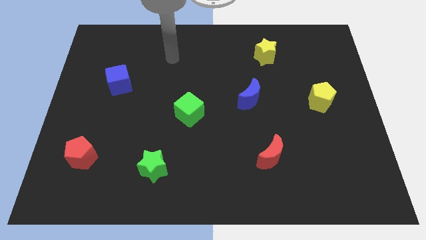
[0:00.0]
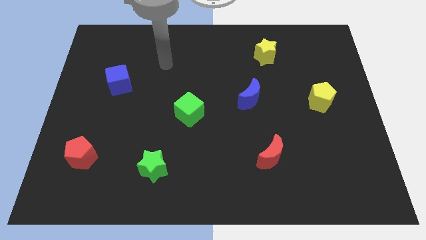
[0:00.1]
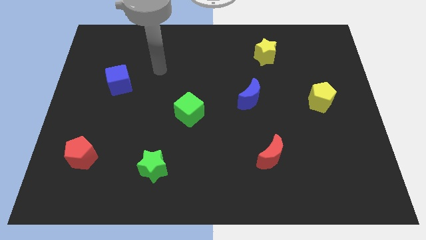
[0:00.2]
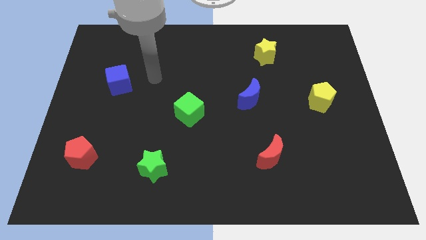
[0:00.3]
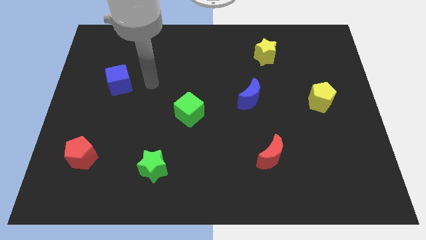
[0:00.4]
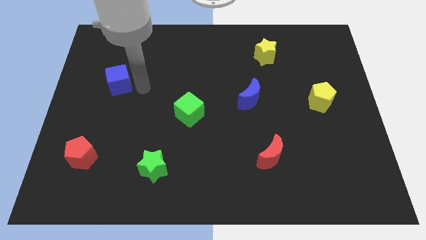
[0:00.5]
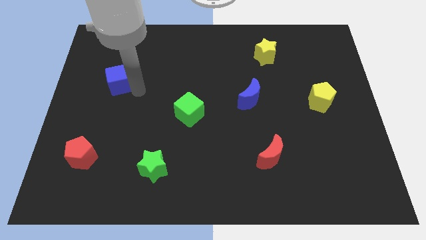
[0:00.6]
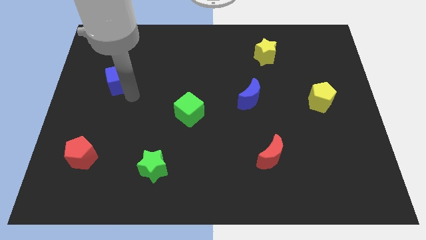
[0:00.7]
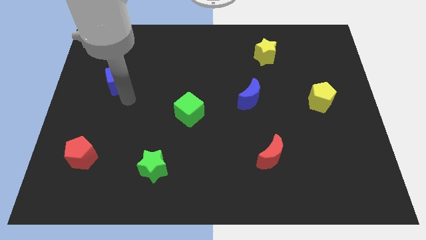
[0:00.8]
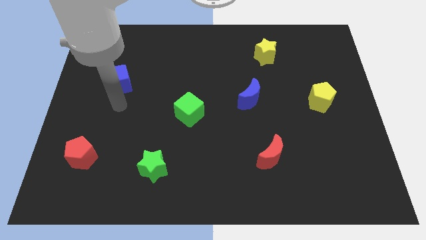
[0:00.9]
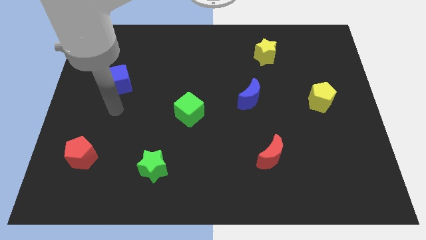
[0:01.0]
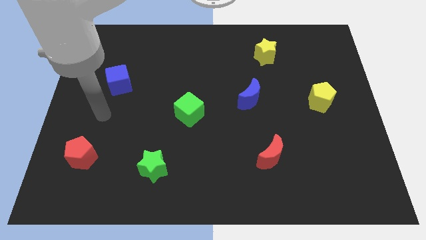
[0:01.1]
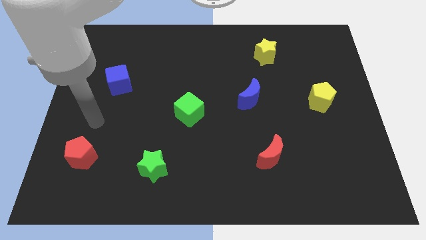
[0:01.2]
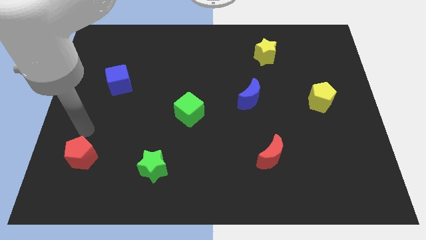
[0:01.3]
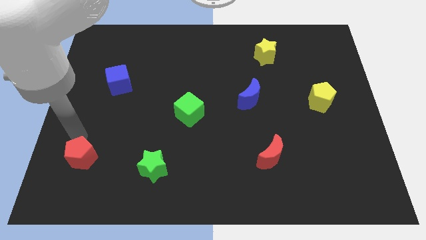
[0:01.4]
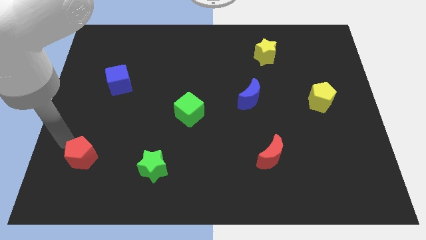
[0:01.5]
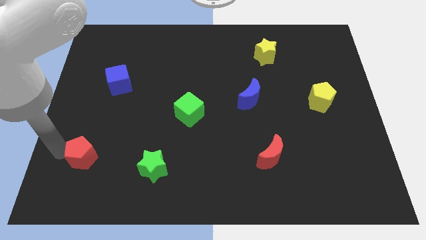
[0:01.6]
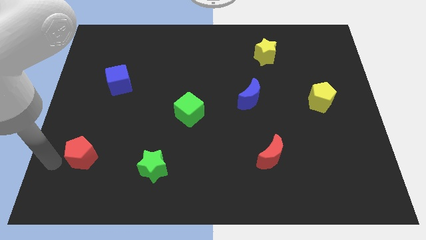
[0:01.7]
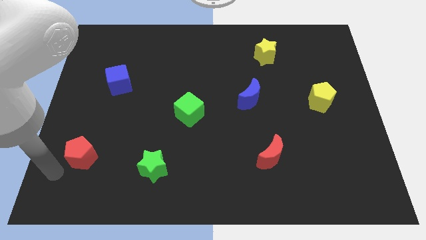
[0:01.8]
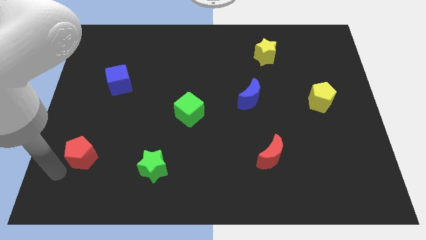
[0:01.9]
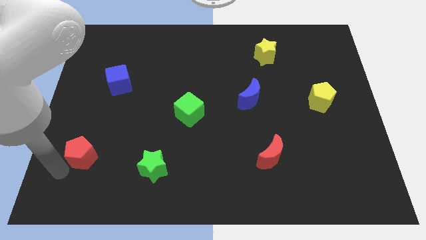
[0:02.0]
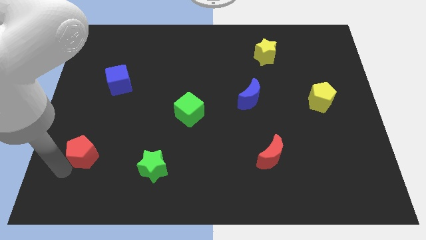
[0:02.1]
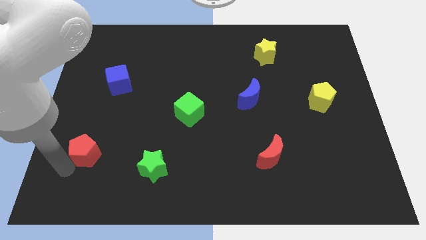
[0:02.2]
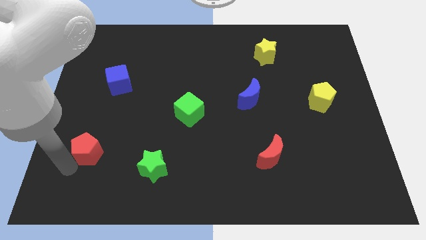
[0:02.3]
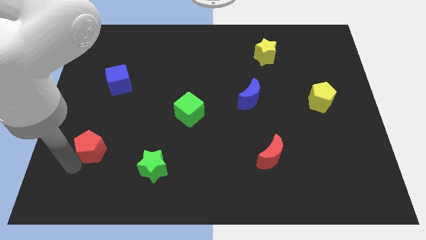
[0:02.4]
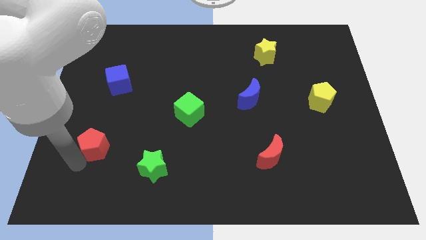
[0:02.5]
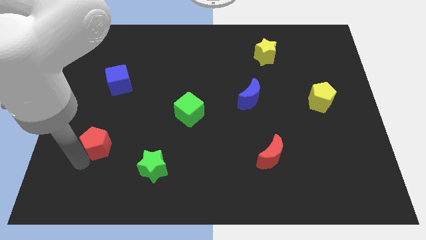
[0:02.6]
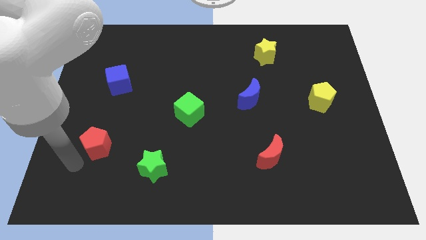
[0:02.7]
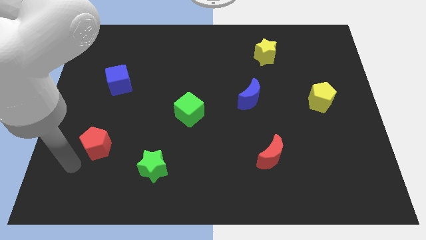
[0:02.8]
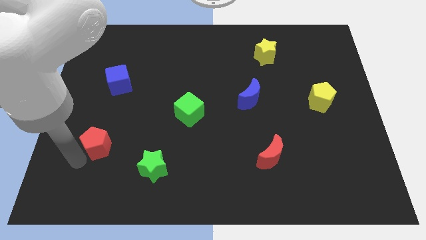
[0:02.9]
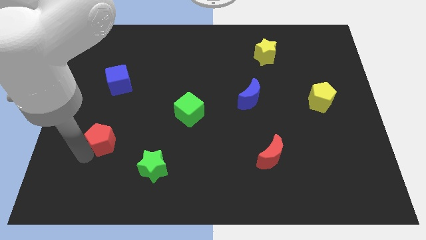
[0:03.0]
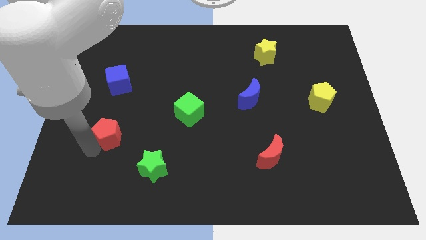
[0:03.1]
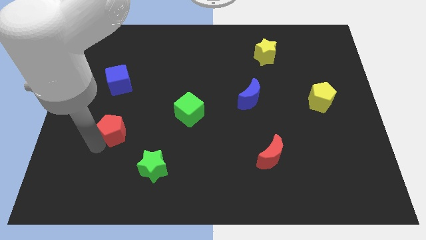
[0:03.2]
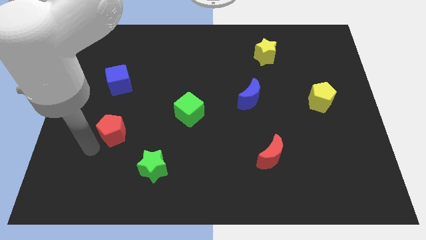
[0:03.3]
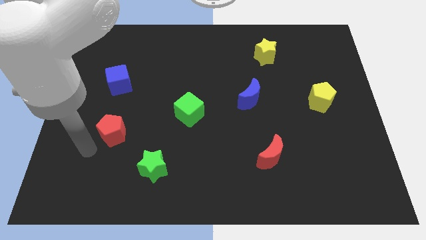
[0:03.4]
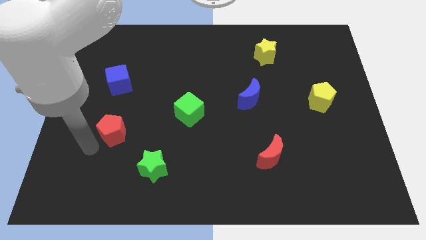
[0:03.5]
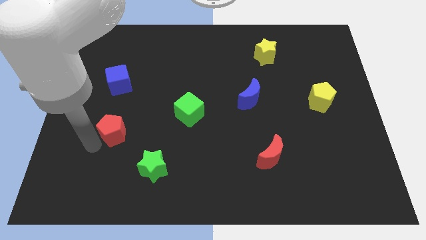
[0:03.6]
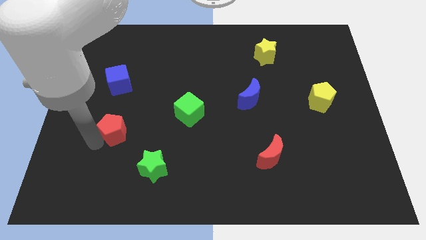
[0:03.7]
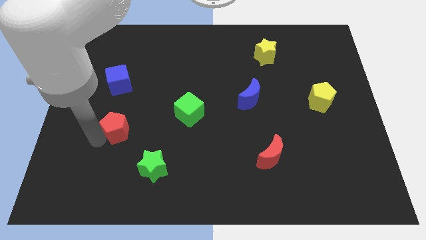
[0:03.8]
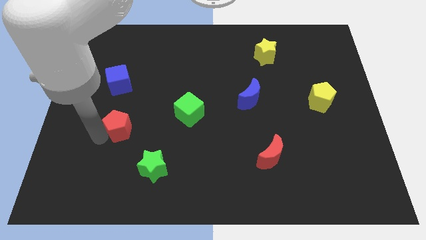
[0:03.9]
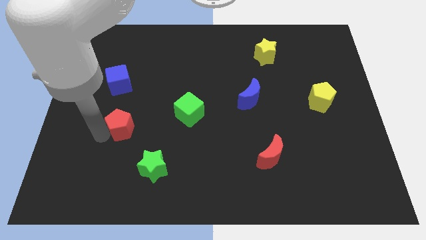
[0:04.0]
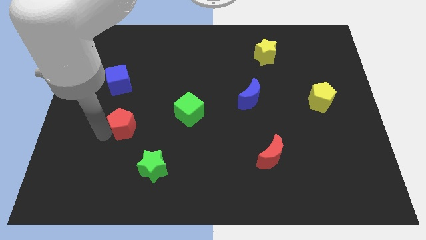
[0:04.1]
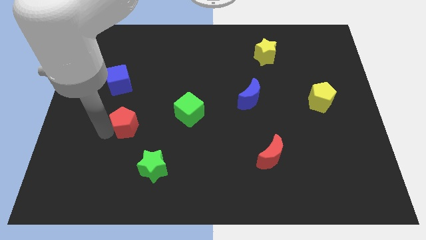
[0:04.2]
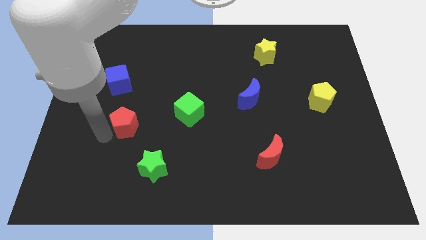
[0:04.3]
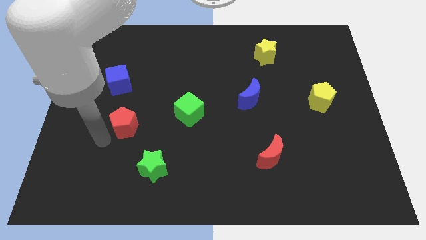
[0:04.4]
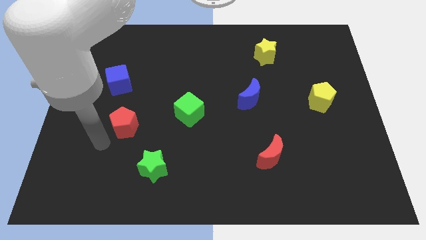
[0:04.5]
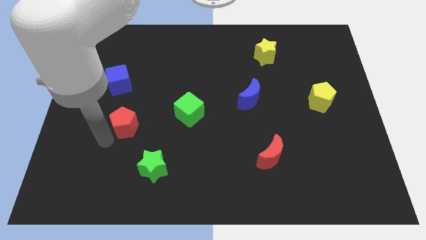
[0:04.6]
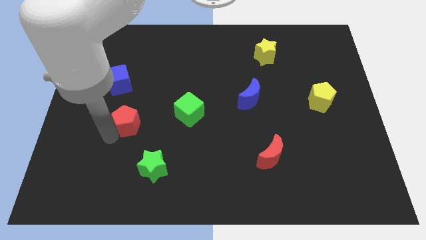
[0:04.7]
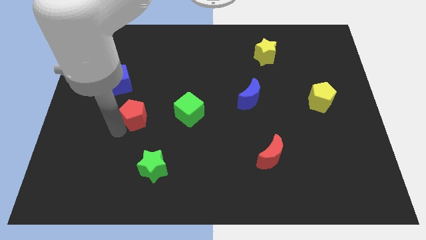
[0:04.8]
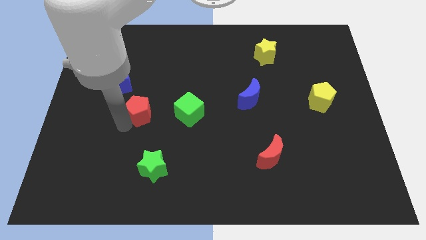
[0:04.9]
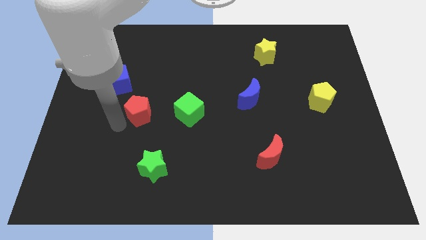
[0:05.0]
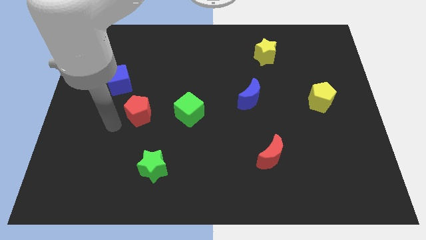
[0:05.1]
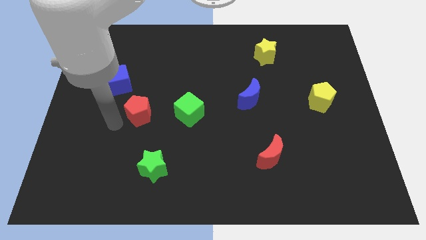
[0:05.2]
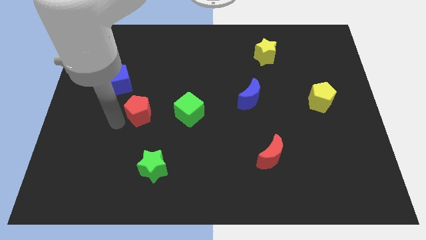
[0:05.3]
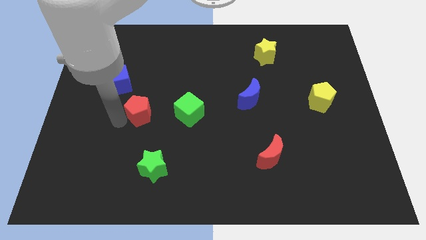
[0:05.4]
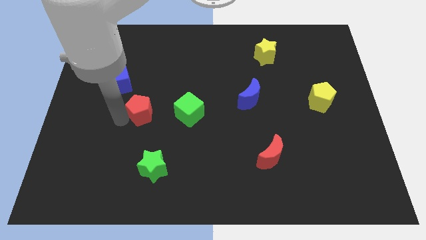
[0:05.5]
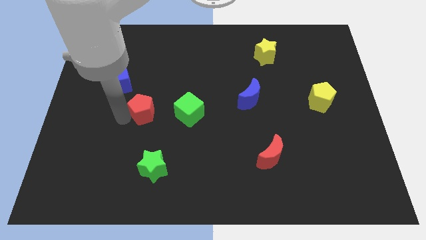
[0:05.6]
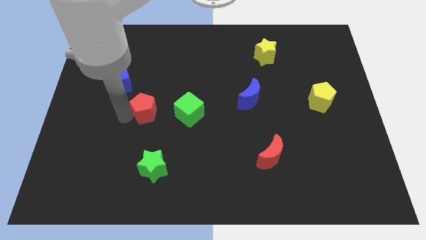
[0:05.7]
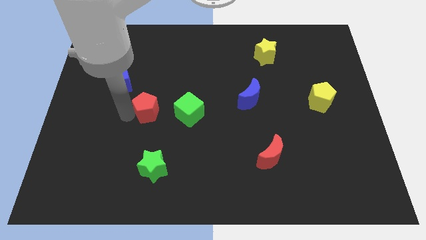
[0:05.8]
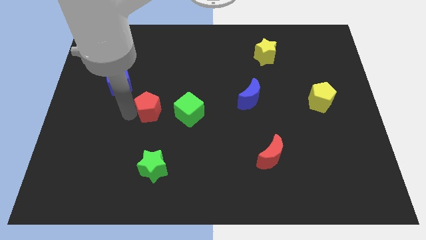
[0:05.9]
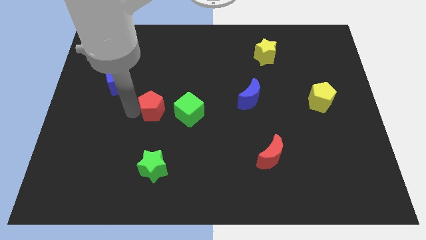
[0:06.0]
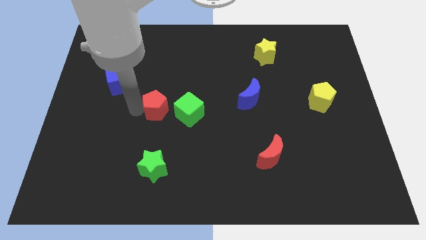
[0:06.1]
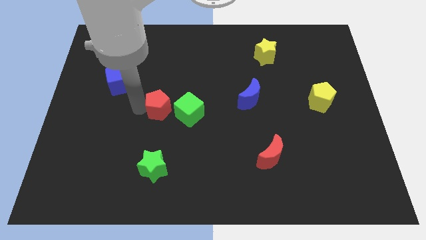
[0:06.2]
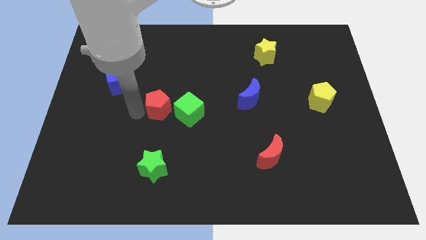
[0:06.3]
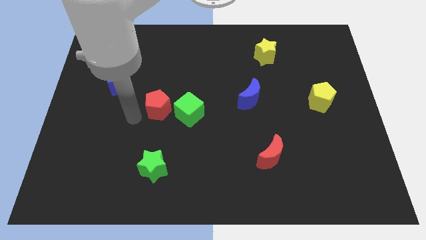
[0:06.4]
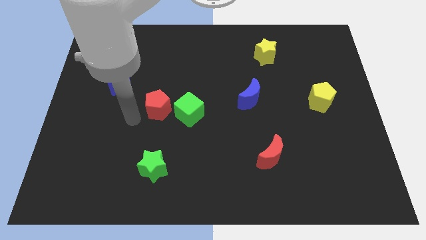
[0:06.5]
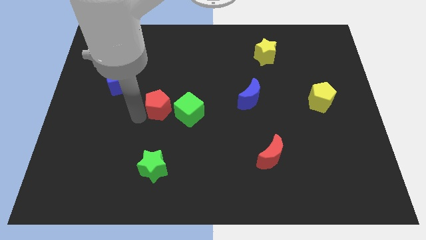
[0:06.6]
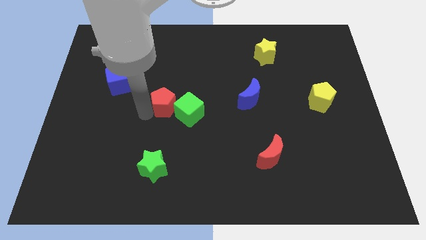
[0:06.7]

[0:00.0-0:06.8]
push the red pentagon to the middle

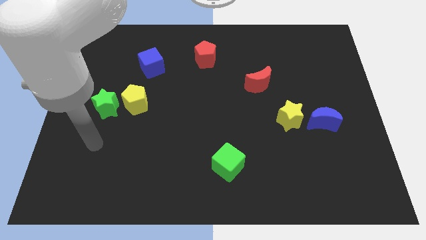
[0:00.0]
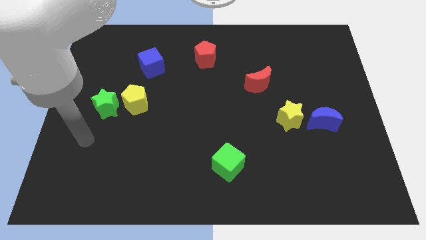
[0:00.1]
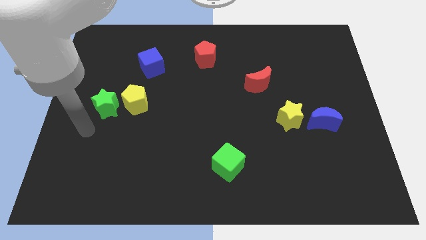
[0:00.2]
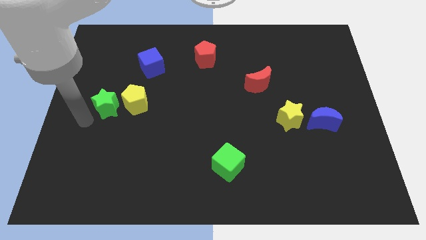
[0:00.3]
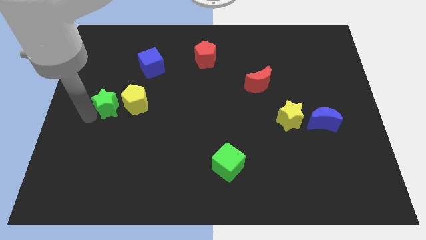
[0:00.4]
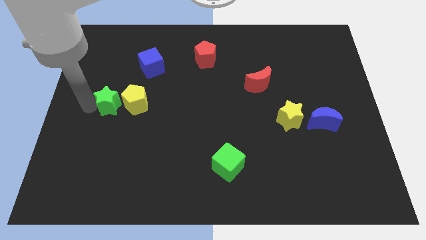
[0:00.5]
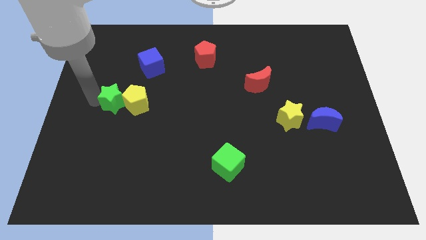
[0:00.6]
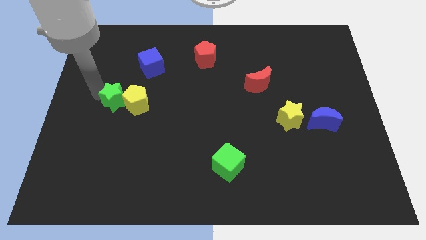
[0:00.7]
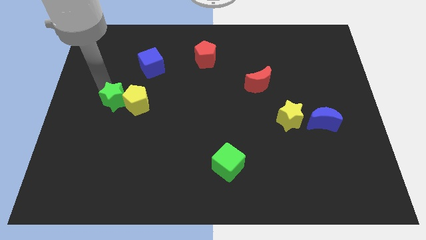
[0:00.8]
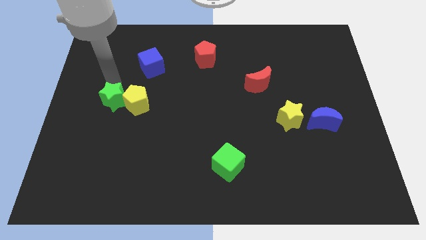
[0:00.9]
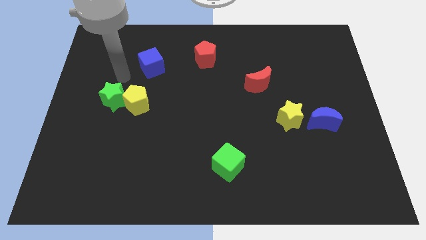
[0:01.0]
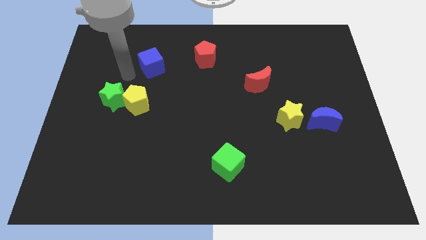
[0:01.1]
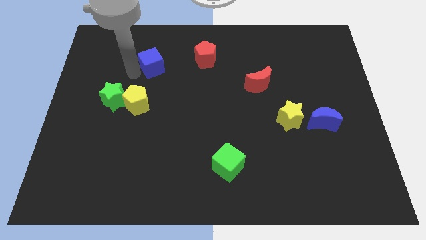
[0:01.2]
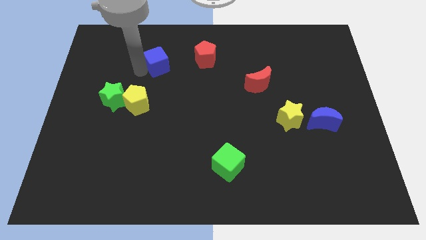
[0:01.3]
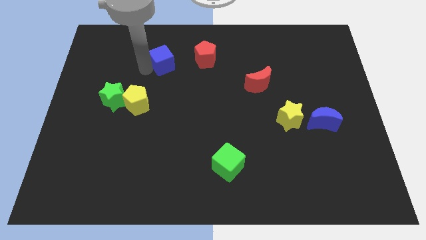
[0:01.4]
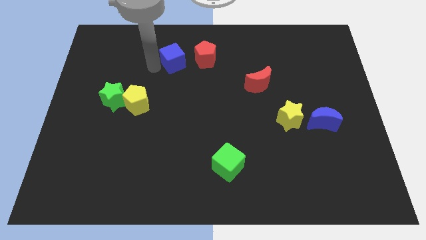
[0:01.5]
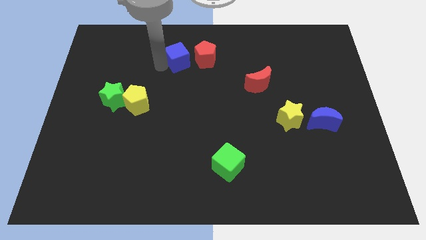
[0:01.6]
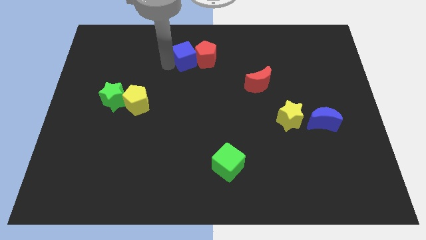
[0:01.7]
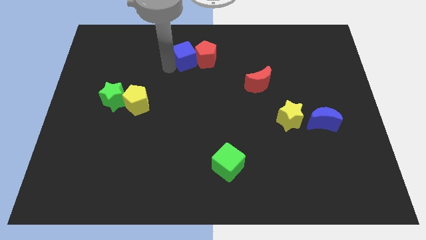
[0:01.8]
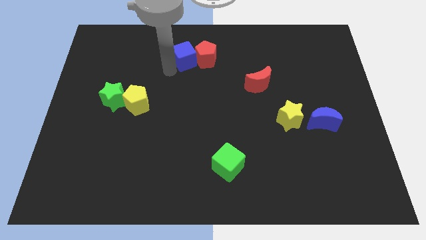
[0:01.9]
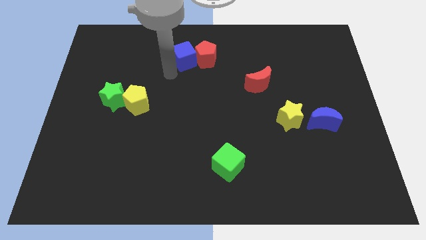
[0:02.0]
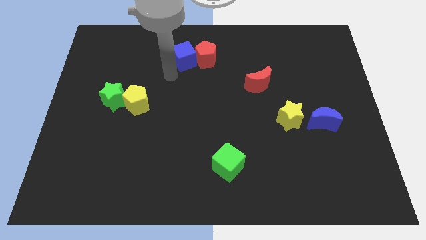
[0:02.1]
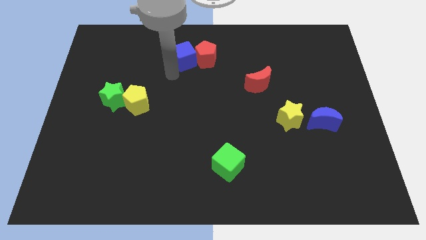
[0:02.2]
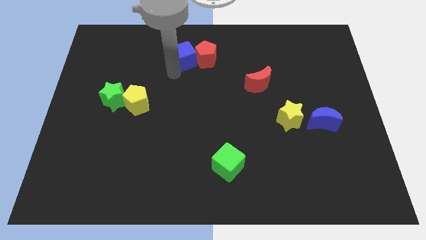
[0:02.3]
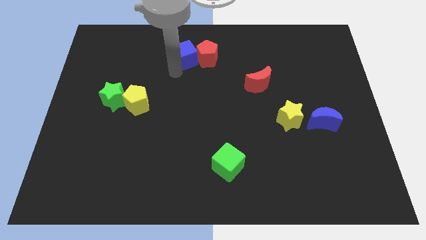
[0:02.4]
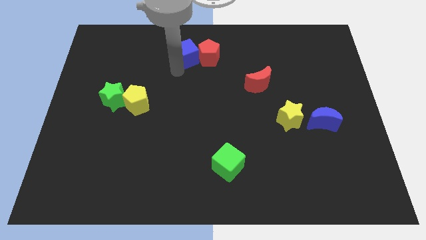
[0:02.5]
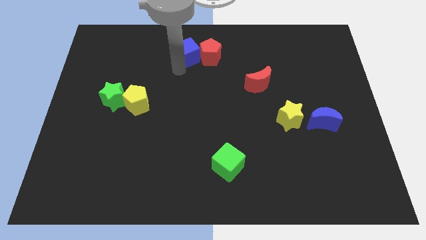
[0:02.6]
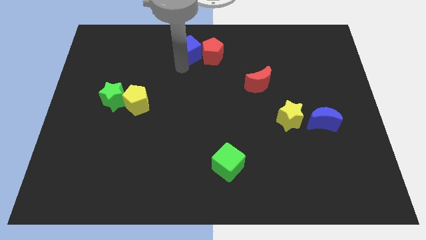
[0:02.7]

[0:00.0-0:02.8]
push the blue cube to the towards your base
